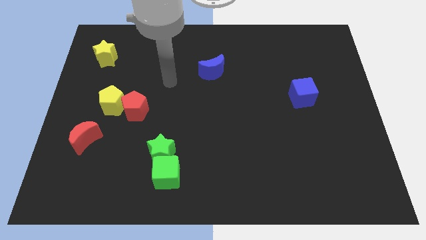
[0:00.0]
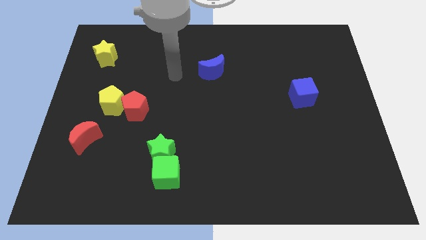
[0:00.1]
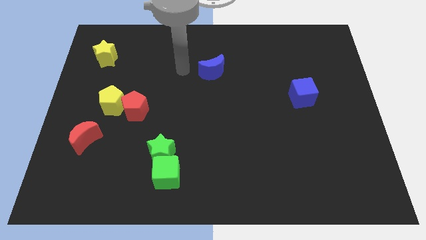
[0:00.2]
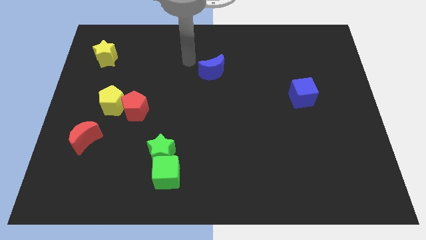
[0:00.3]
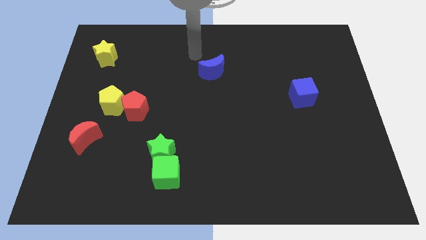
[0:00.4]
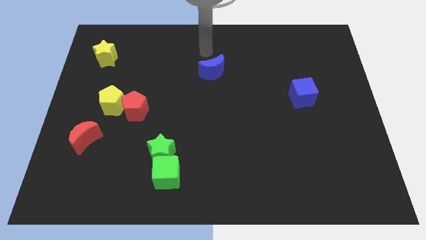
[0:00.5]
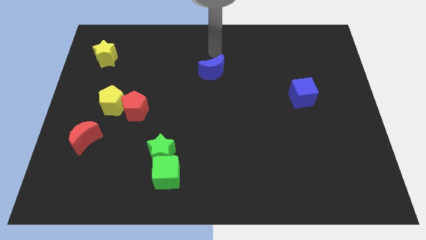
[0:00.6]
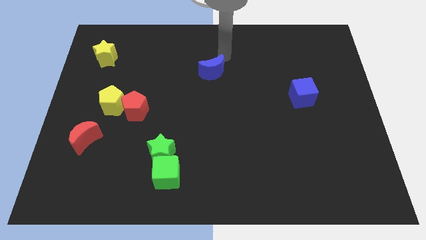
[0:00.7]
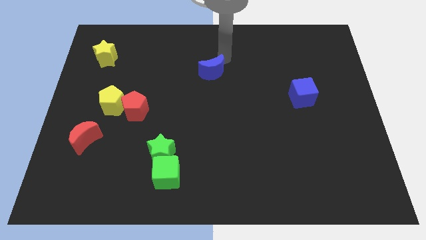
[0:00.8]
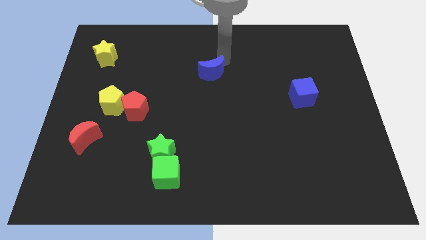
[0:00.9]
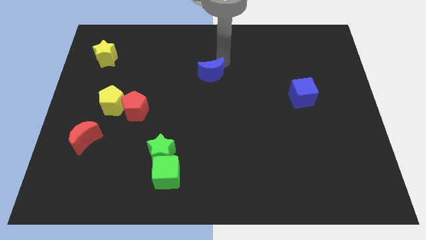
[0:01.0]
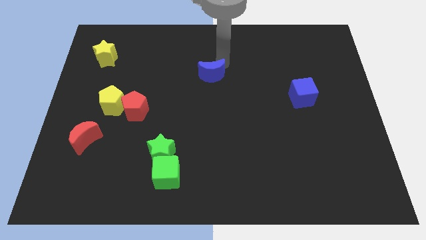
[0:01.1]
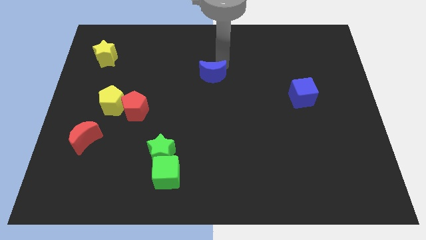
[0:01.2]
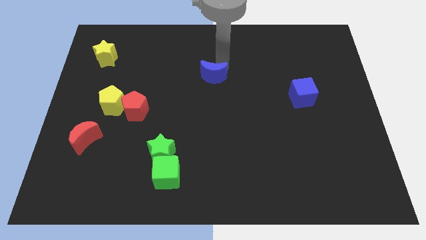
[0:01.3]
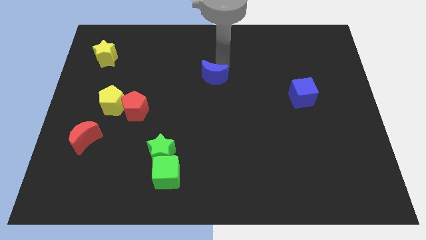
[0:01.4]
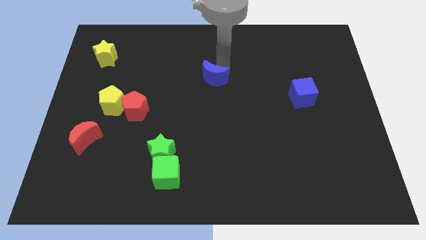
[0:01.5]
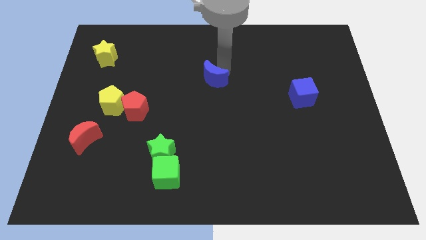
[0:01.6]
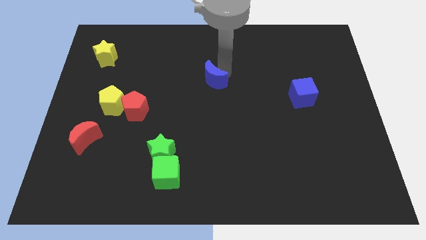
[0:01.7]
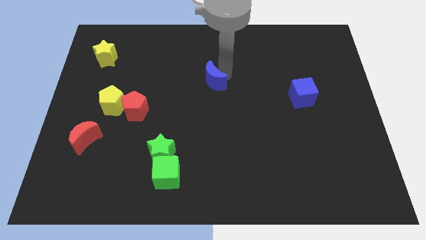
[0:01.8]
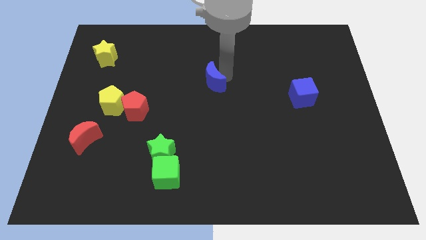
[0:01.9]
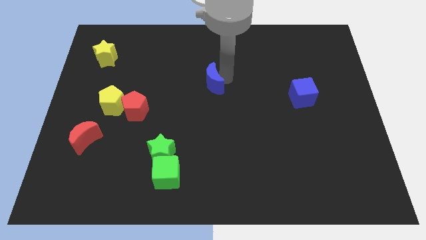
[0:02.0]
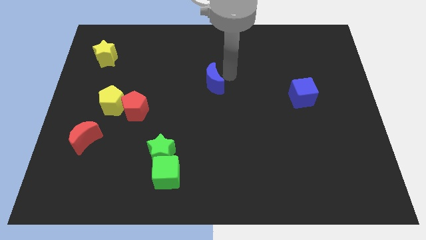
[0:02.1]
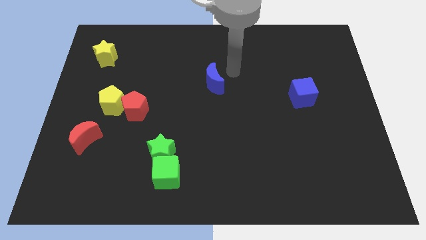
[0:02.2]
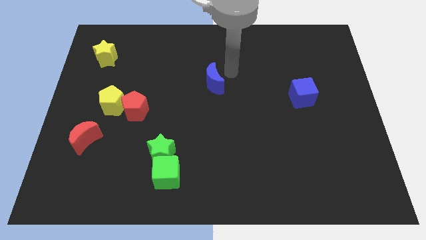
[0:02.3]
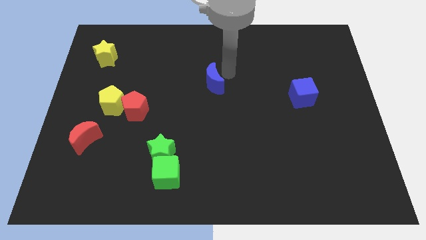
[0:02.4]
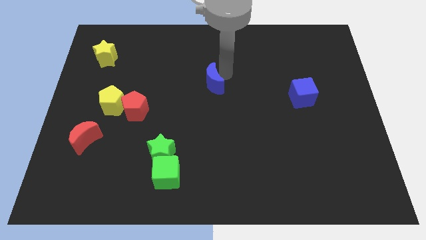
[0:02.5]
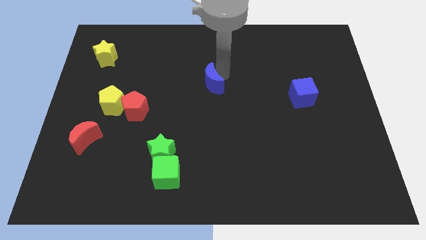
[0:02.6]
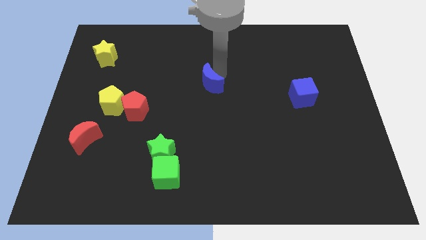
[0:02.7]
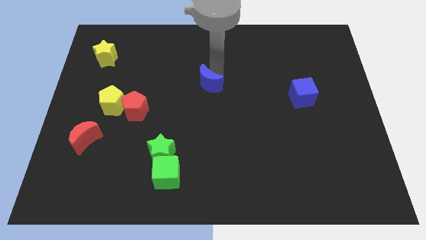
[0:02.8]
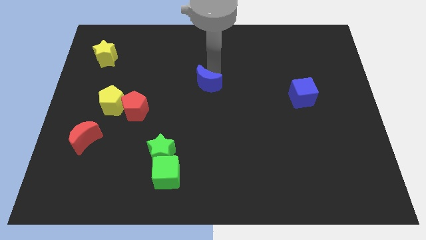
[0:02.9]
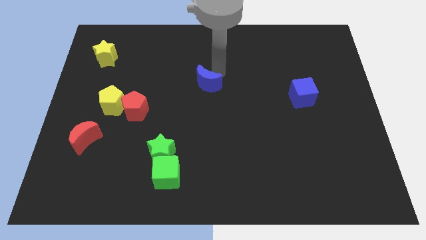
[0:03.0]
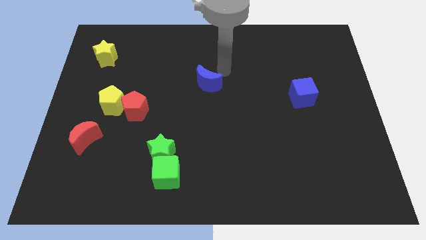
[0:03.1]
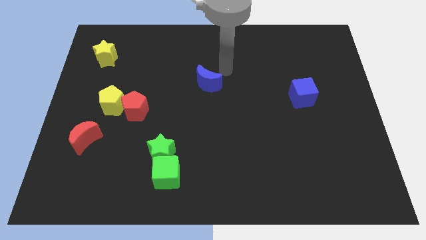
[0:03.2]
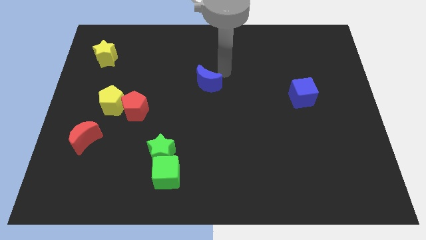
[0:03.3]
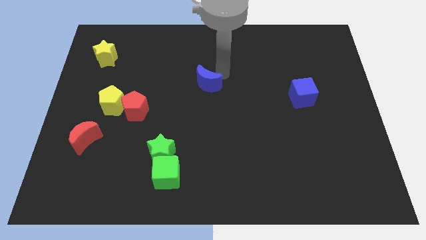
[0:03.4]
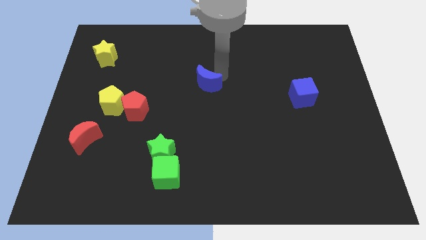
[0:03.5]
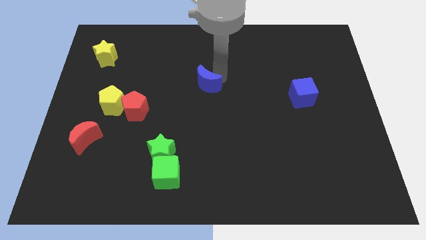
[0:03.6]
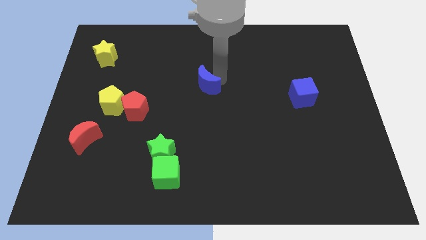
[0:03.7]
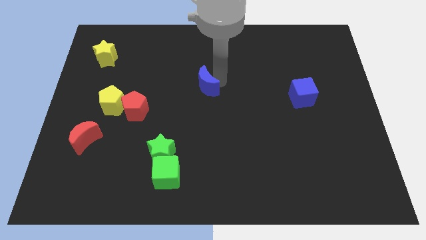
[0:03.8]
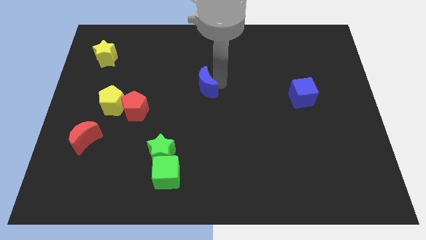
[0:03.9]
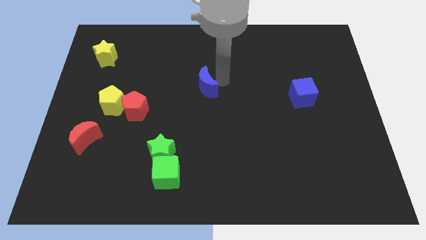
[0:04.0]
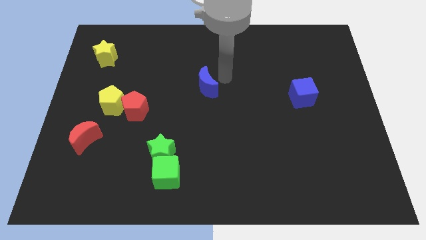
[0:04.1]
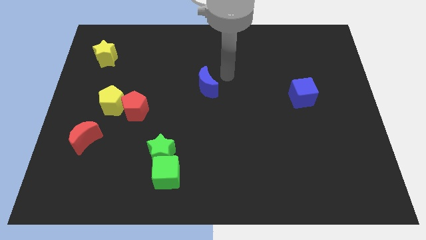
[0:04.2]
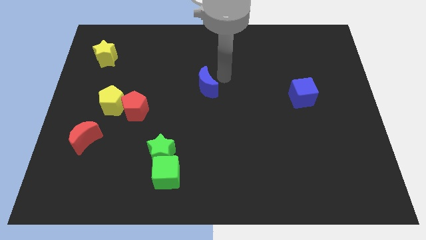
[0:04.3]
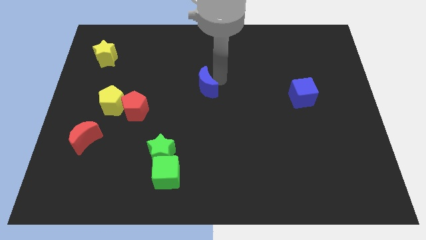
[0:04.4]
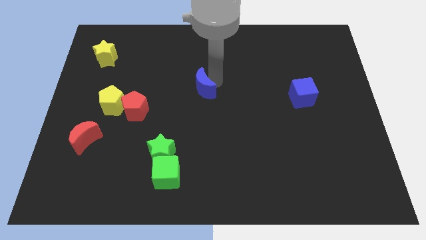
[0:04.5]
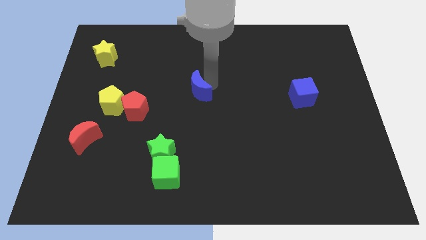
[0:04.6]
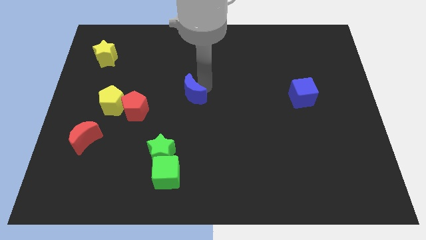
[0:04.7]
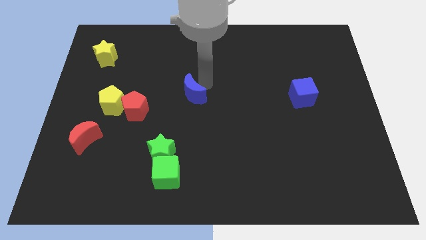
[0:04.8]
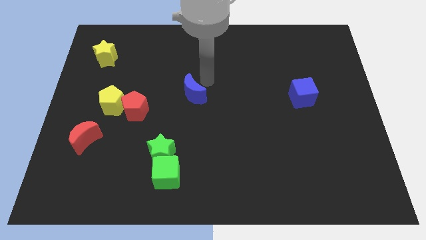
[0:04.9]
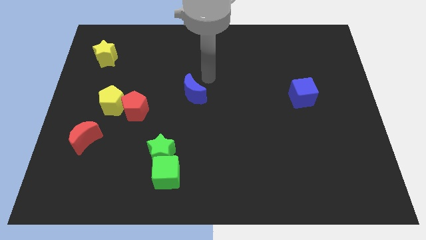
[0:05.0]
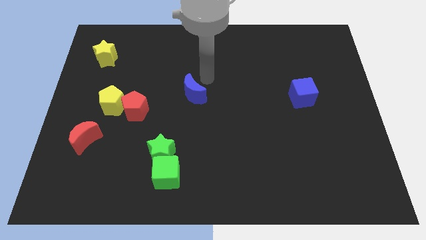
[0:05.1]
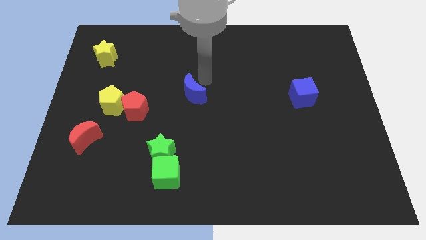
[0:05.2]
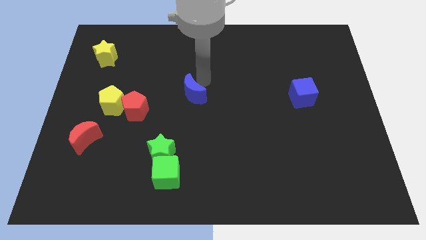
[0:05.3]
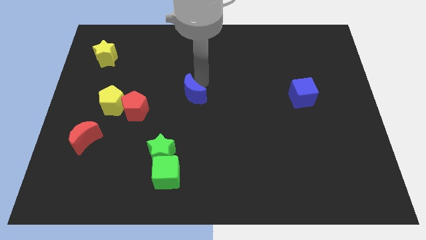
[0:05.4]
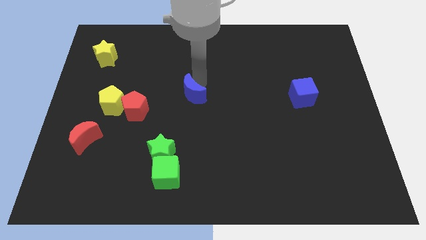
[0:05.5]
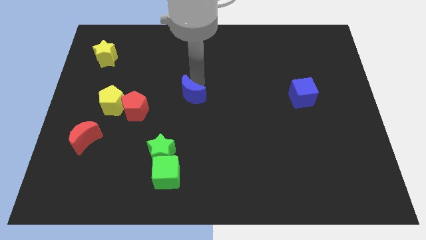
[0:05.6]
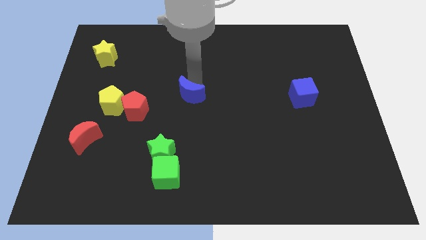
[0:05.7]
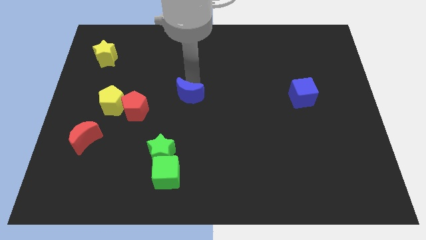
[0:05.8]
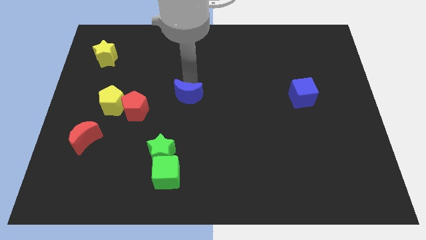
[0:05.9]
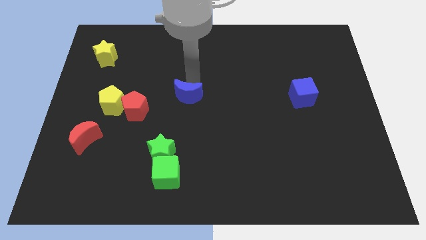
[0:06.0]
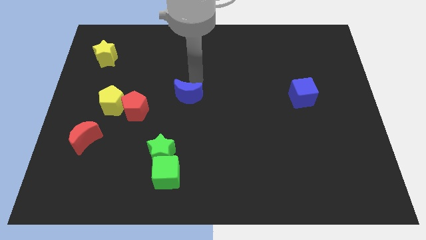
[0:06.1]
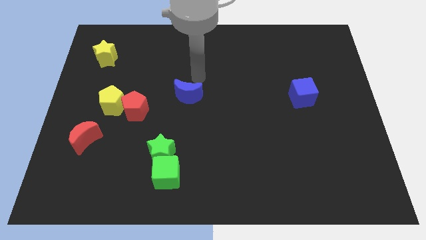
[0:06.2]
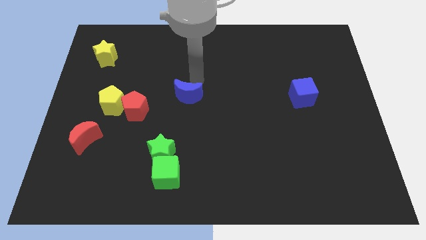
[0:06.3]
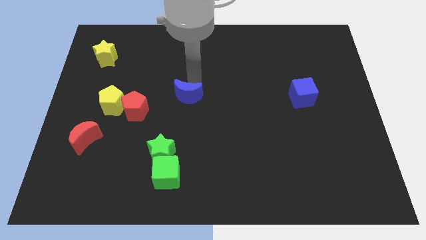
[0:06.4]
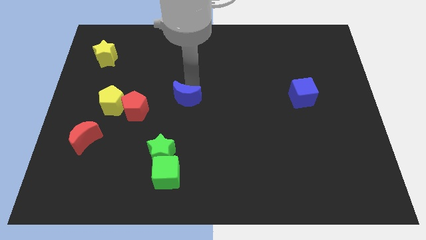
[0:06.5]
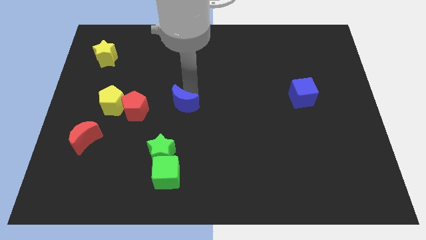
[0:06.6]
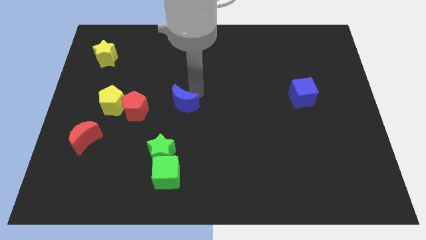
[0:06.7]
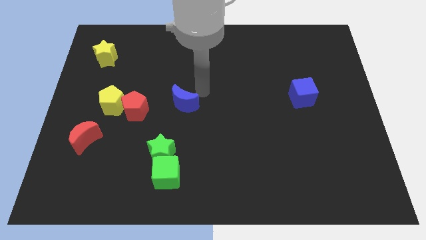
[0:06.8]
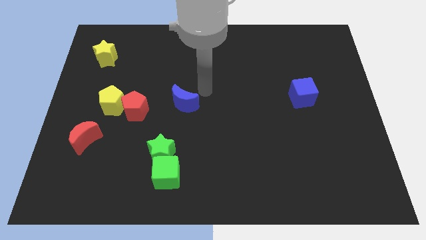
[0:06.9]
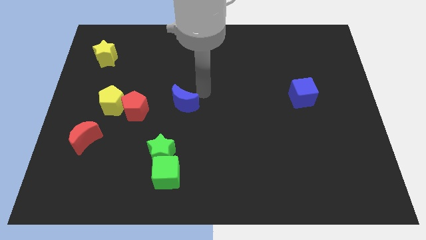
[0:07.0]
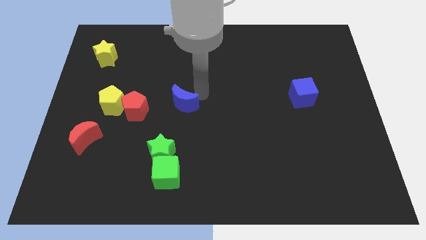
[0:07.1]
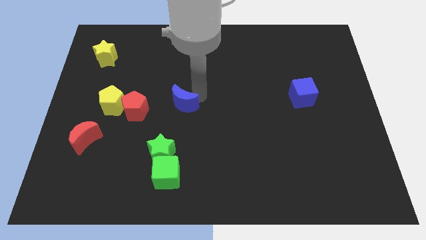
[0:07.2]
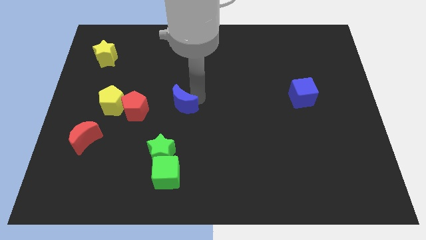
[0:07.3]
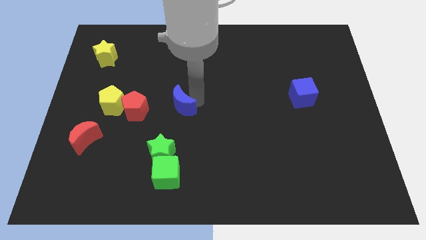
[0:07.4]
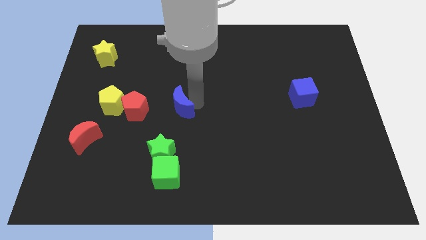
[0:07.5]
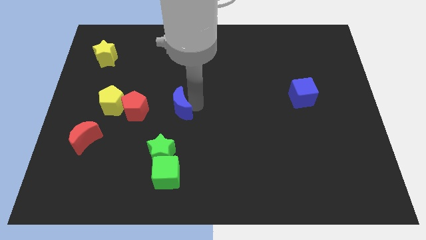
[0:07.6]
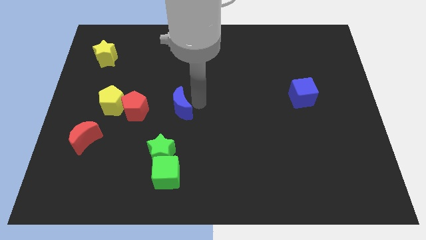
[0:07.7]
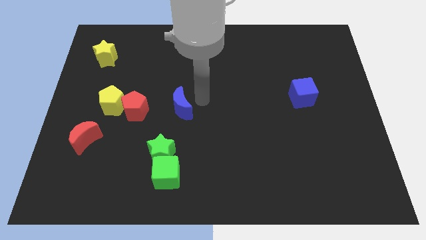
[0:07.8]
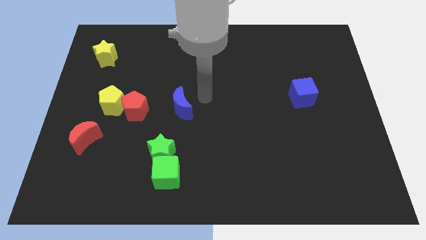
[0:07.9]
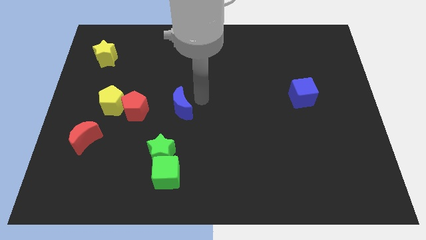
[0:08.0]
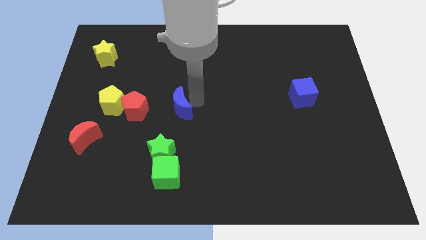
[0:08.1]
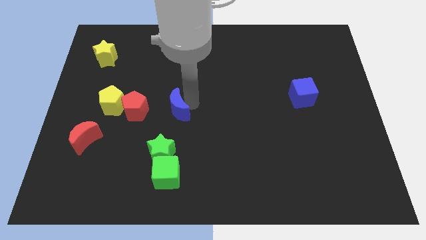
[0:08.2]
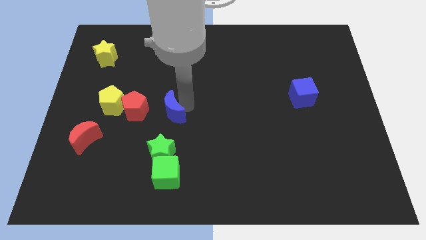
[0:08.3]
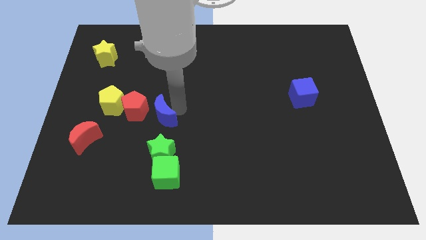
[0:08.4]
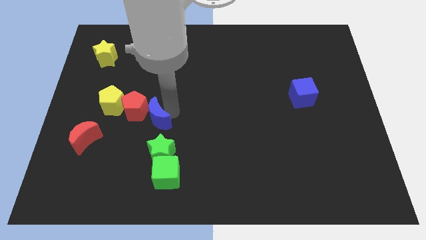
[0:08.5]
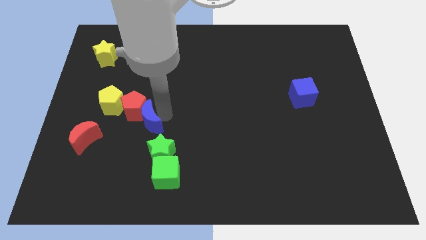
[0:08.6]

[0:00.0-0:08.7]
move the blue moon downwards and to the left diagonally
